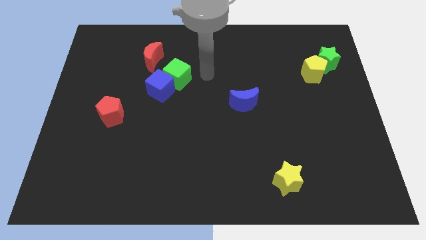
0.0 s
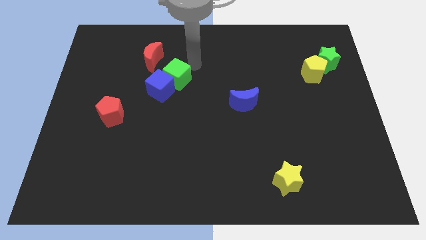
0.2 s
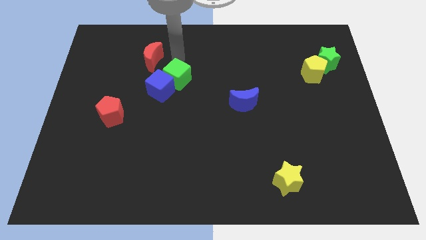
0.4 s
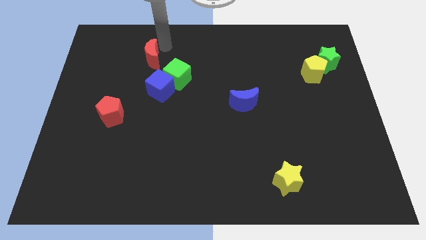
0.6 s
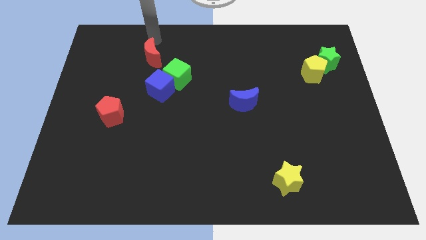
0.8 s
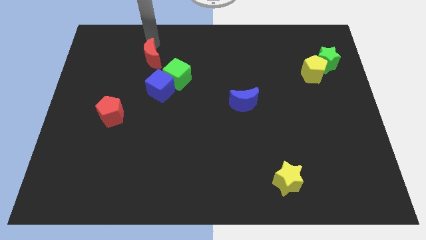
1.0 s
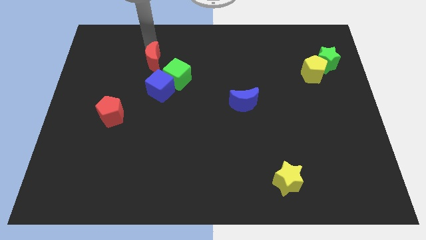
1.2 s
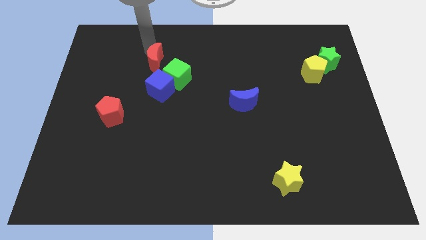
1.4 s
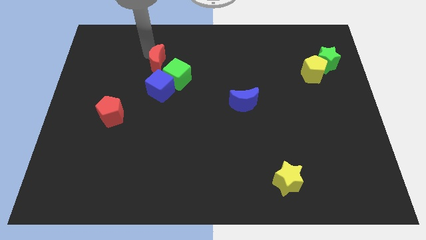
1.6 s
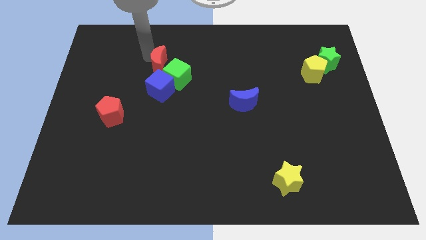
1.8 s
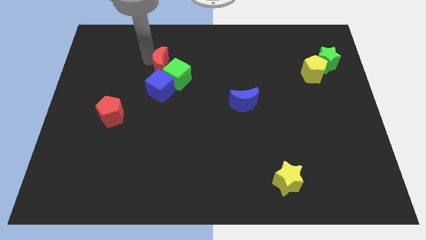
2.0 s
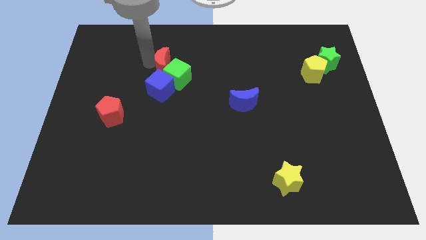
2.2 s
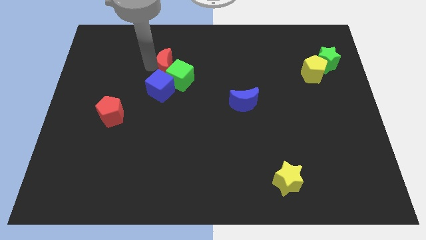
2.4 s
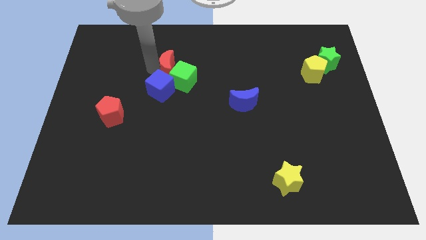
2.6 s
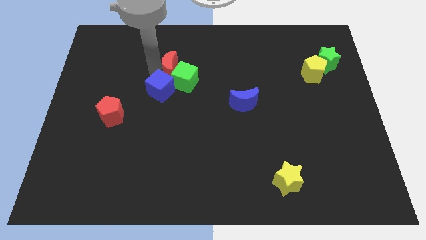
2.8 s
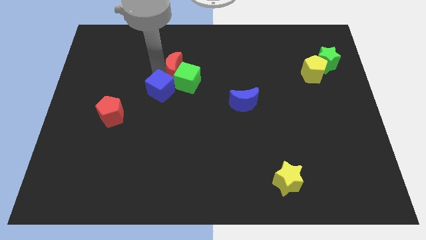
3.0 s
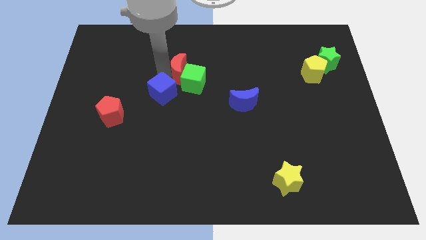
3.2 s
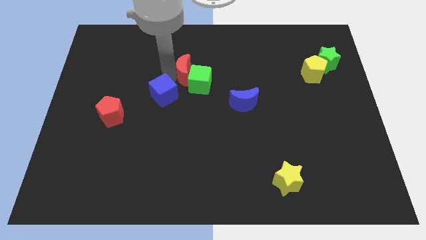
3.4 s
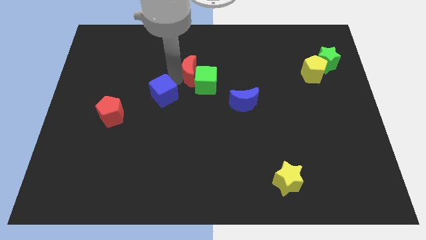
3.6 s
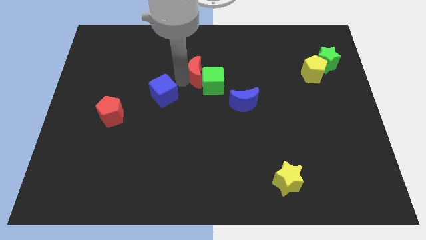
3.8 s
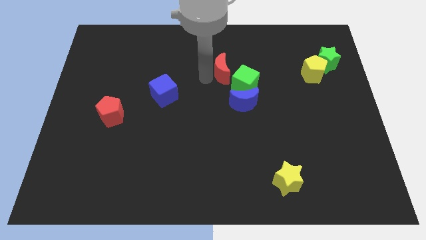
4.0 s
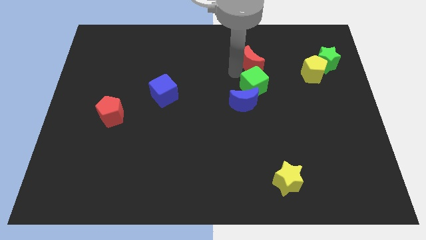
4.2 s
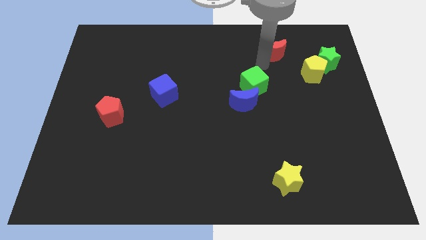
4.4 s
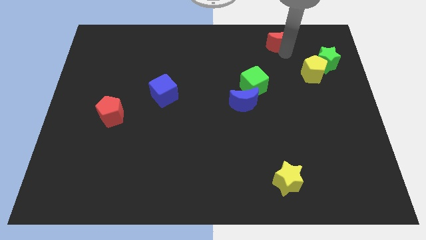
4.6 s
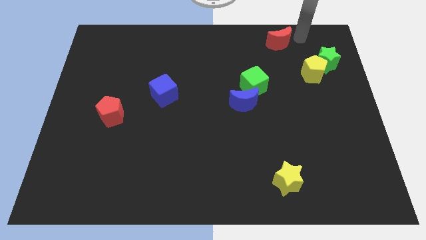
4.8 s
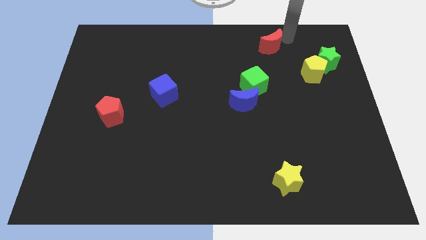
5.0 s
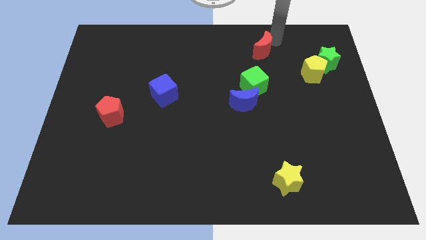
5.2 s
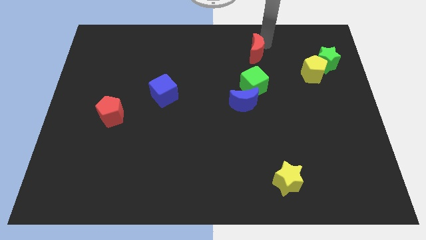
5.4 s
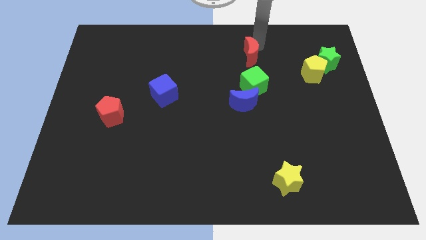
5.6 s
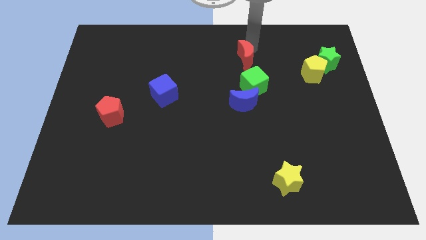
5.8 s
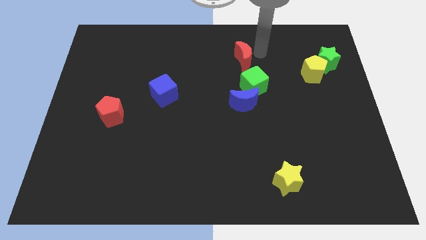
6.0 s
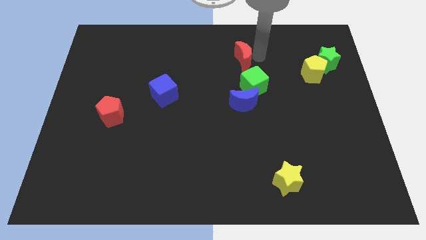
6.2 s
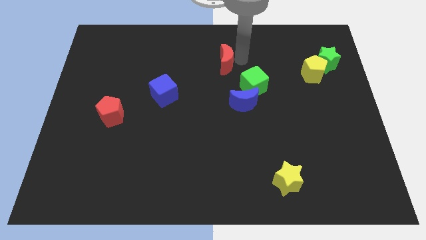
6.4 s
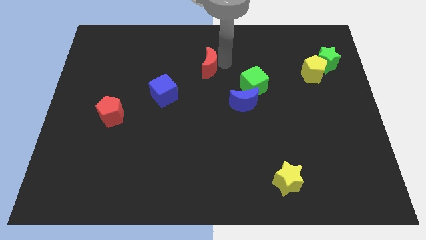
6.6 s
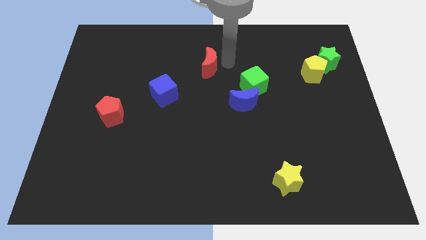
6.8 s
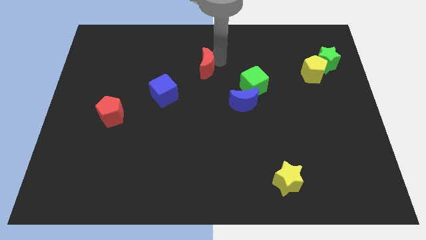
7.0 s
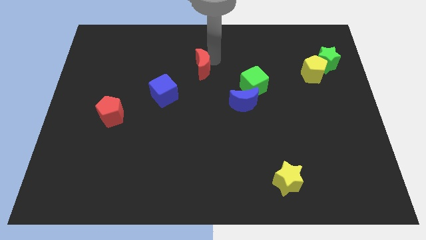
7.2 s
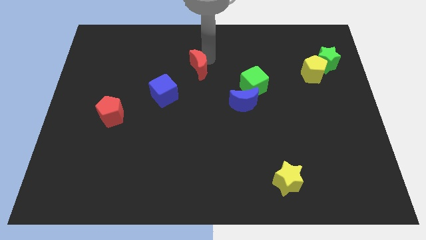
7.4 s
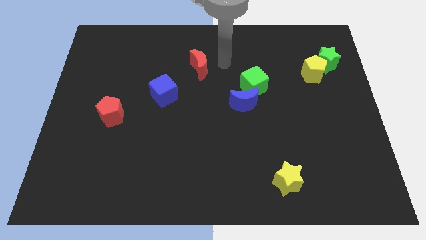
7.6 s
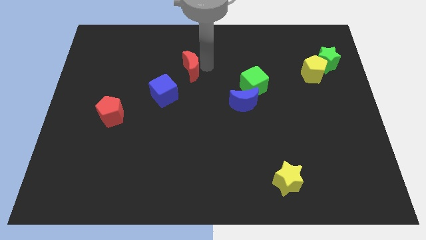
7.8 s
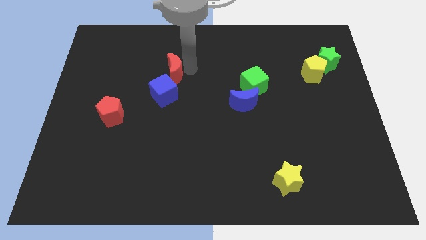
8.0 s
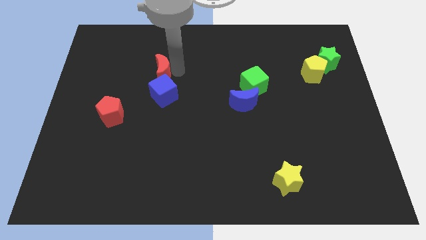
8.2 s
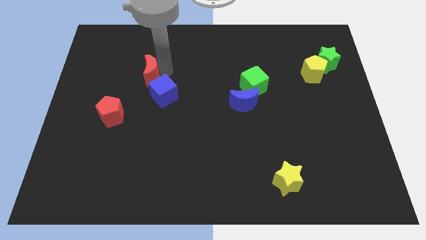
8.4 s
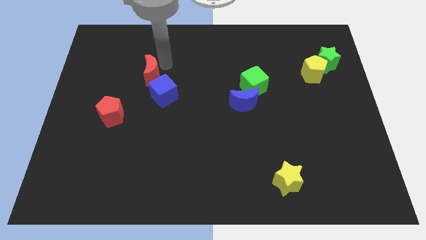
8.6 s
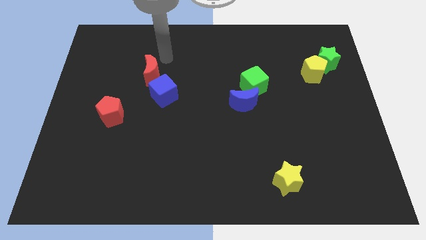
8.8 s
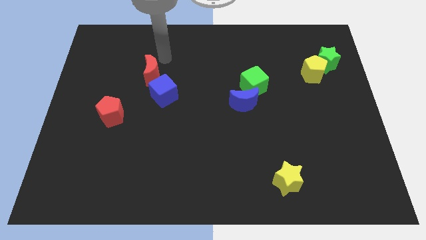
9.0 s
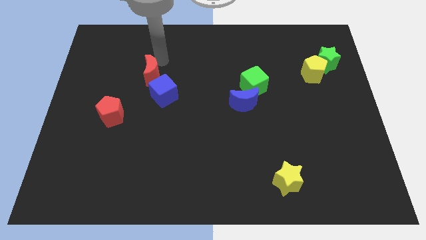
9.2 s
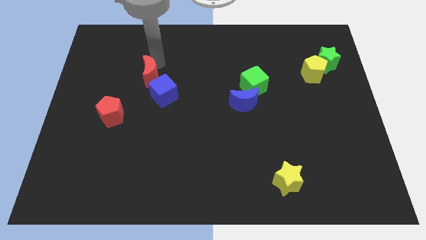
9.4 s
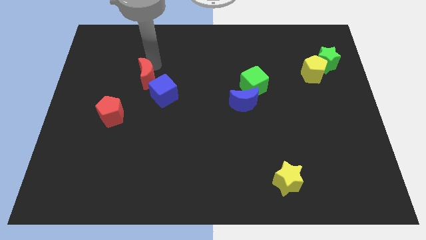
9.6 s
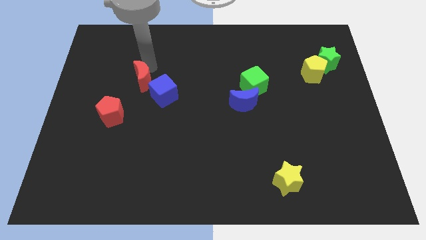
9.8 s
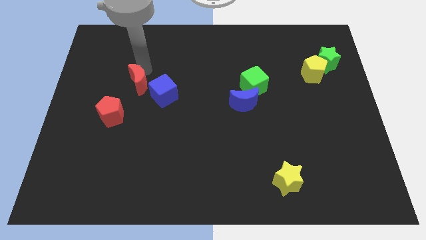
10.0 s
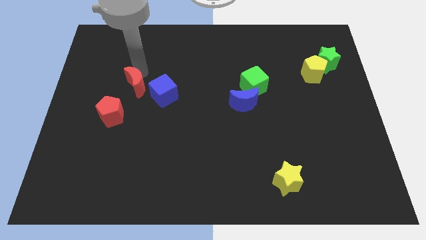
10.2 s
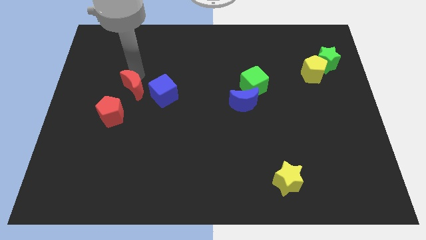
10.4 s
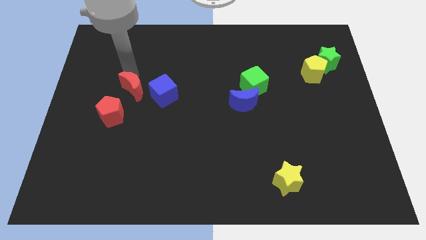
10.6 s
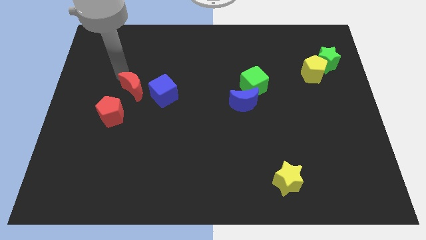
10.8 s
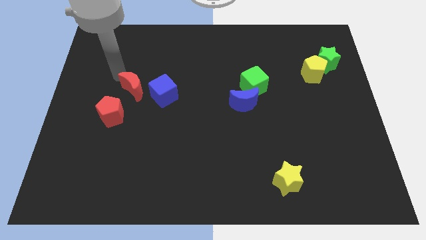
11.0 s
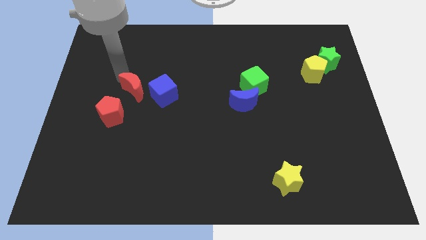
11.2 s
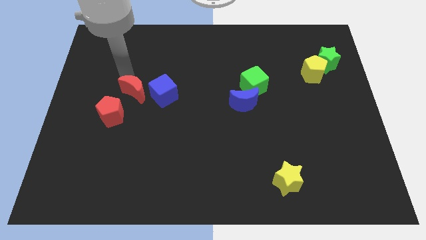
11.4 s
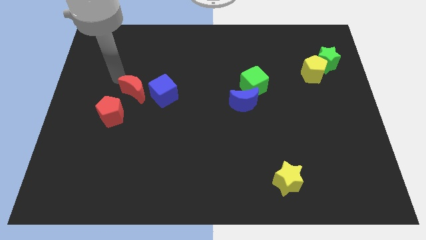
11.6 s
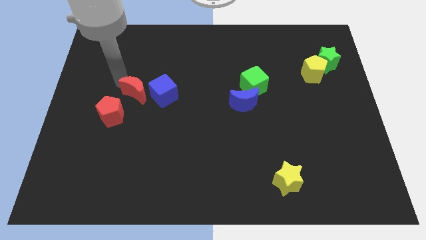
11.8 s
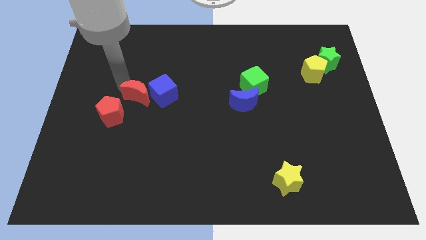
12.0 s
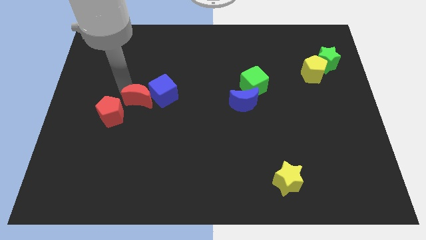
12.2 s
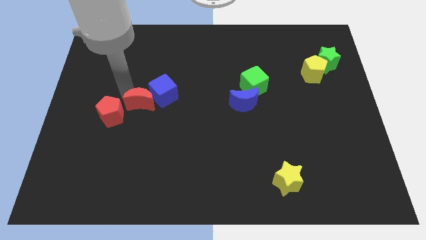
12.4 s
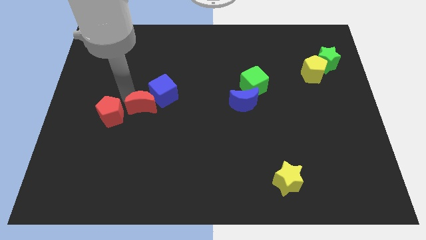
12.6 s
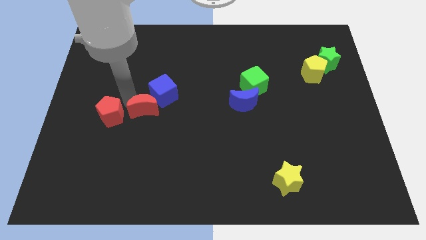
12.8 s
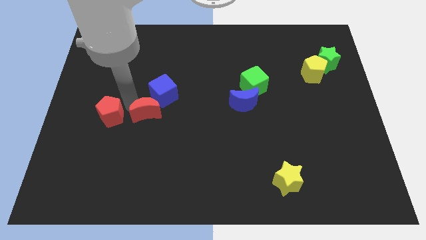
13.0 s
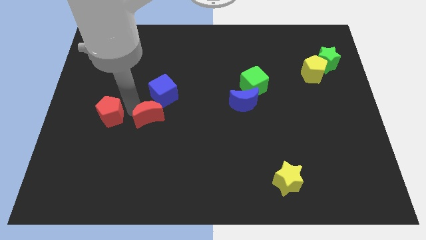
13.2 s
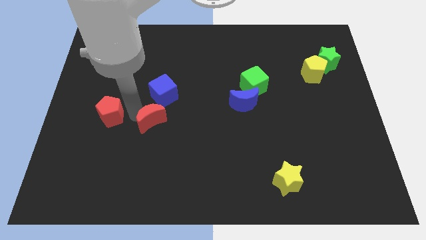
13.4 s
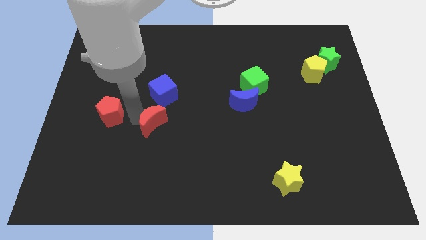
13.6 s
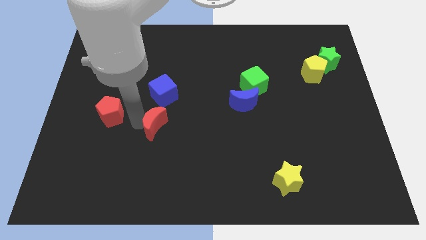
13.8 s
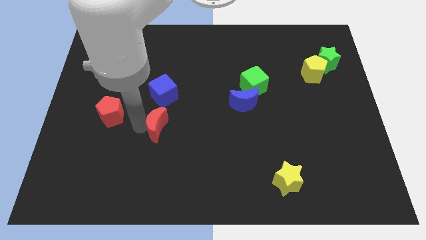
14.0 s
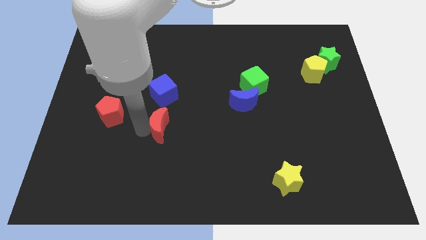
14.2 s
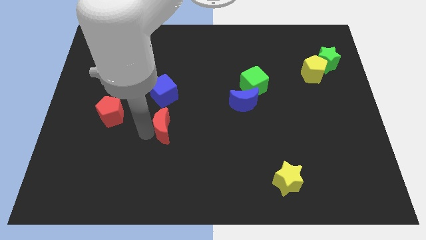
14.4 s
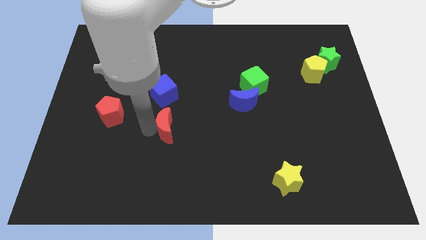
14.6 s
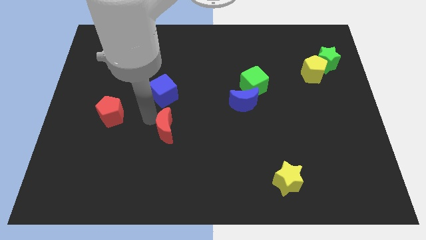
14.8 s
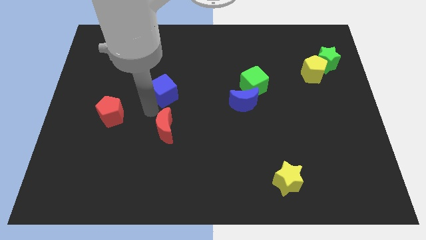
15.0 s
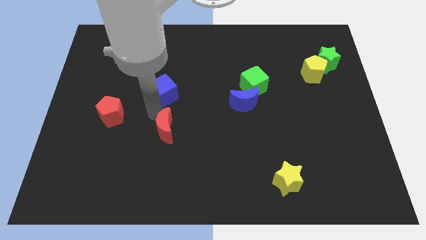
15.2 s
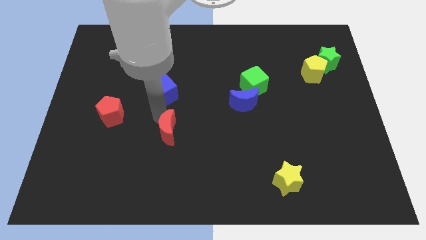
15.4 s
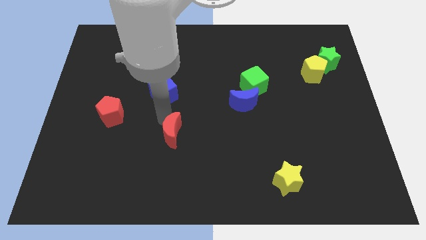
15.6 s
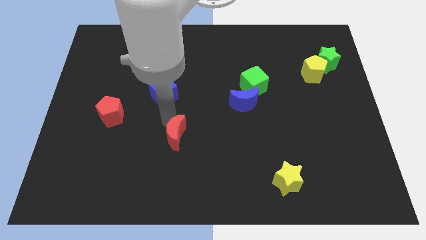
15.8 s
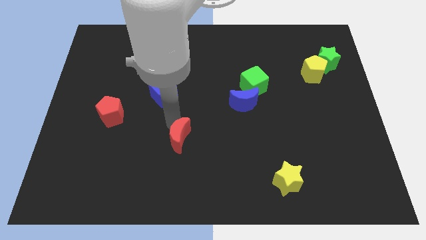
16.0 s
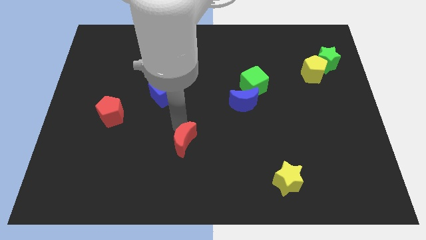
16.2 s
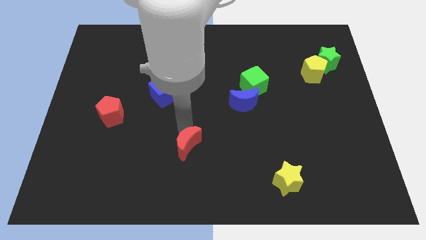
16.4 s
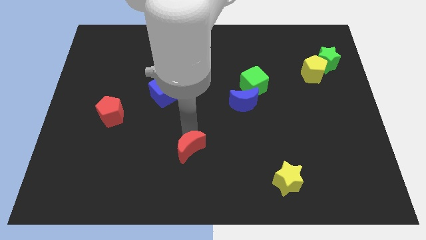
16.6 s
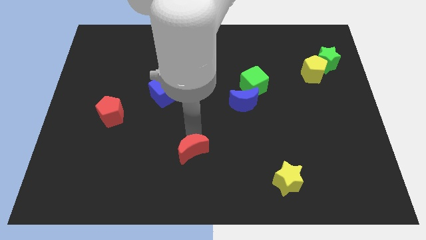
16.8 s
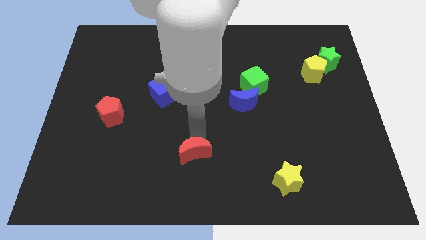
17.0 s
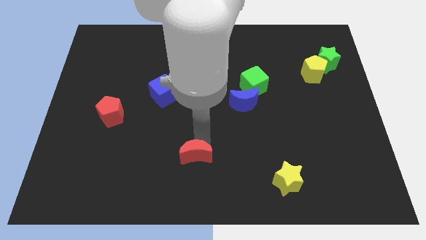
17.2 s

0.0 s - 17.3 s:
put the red moon to the bottom
